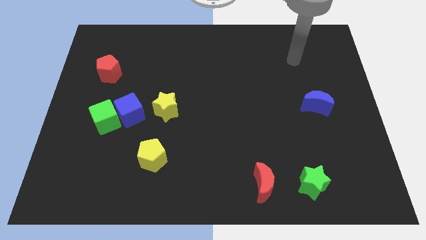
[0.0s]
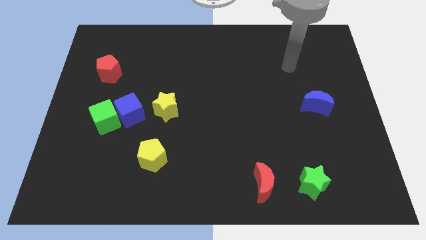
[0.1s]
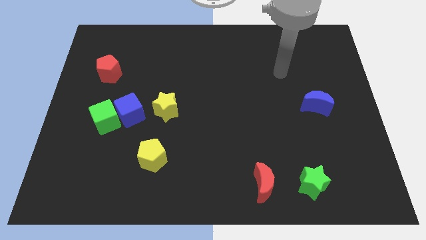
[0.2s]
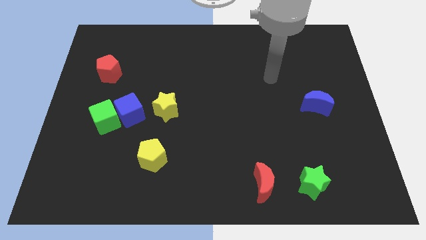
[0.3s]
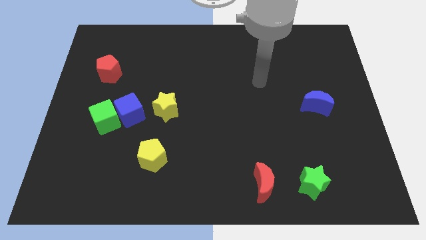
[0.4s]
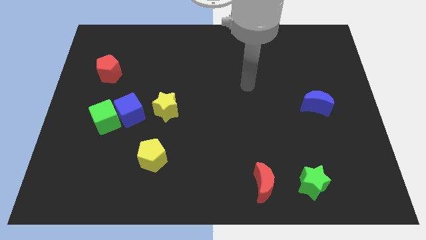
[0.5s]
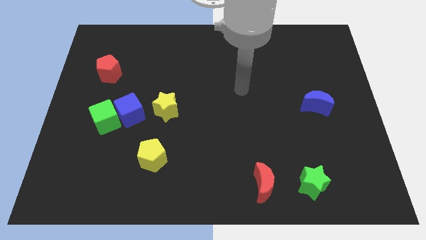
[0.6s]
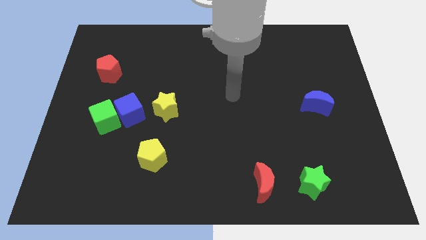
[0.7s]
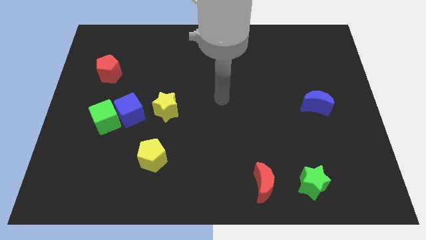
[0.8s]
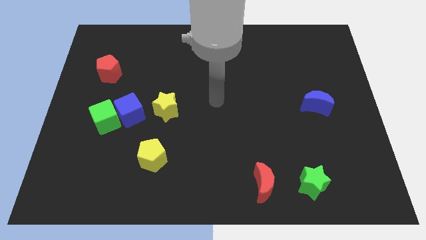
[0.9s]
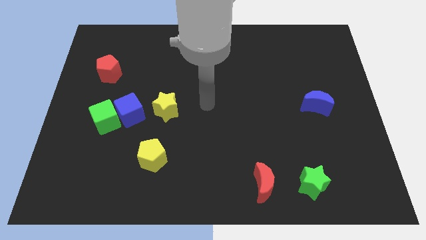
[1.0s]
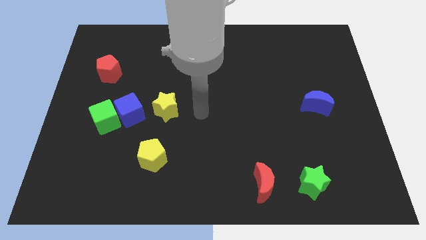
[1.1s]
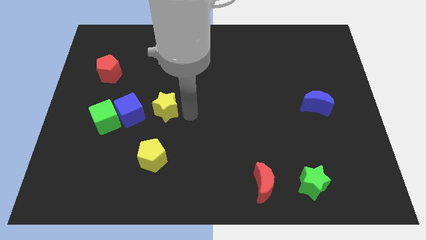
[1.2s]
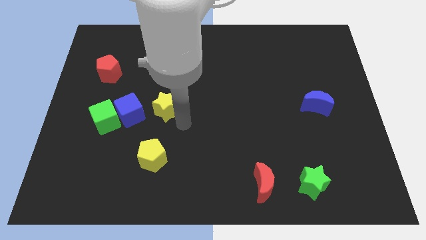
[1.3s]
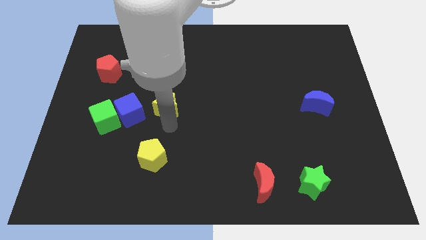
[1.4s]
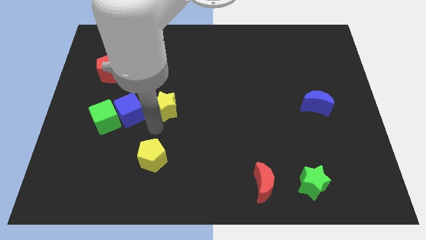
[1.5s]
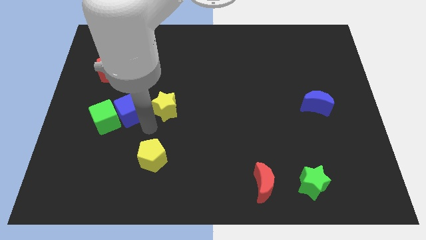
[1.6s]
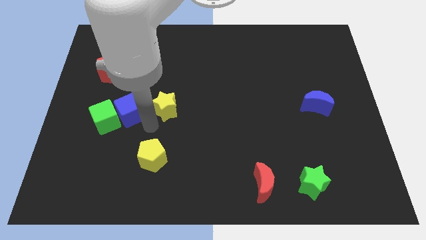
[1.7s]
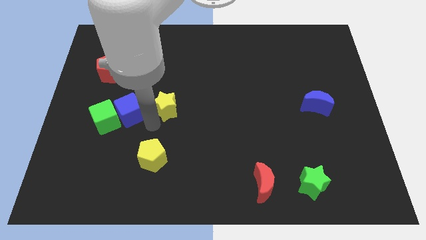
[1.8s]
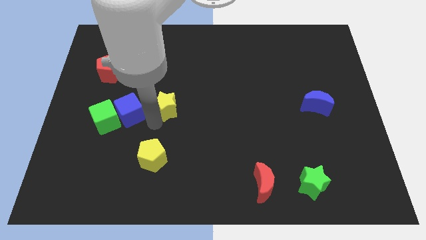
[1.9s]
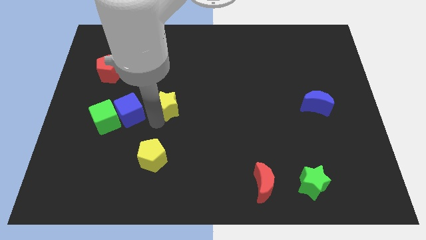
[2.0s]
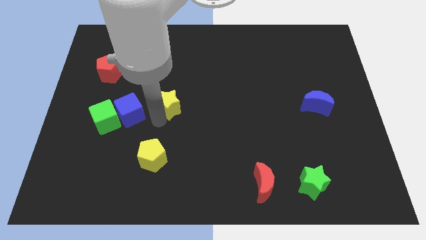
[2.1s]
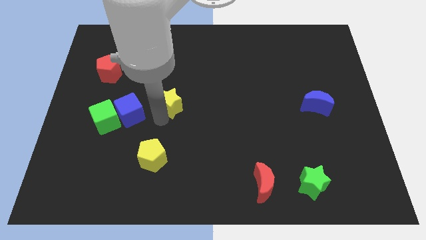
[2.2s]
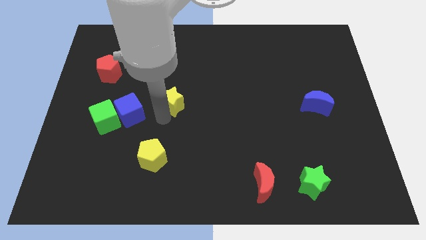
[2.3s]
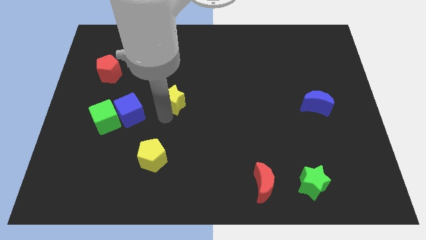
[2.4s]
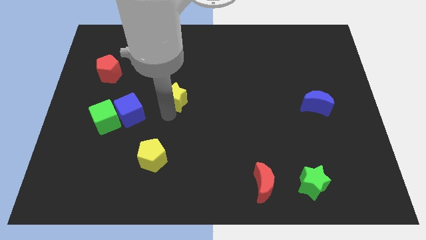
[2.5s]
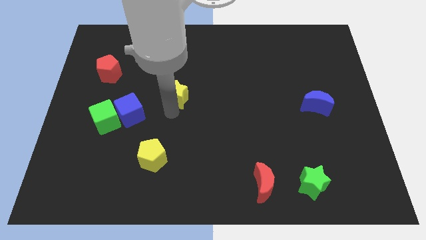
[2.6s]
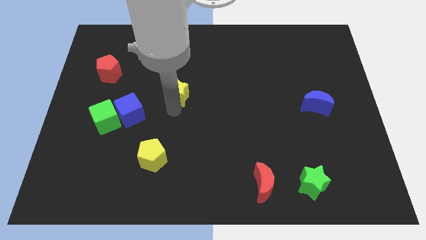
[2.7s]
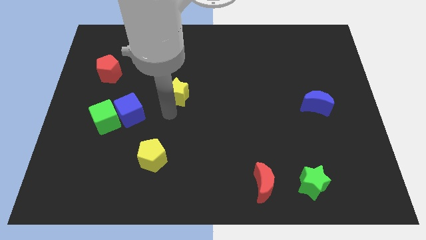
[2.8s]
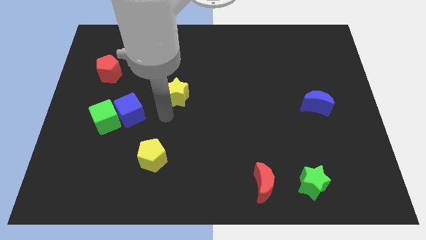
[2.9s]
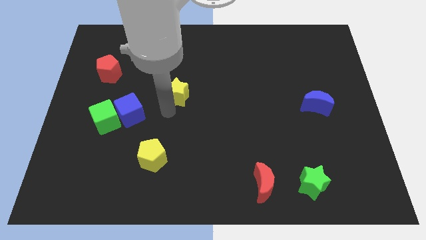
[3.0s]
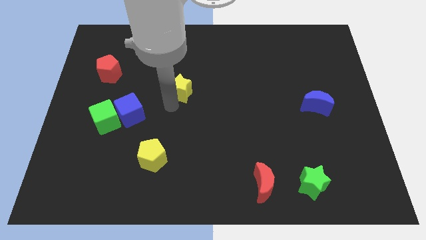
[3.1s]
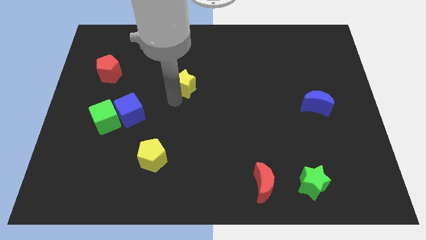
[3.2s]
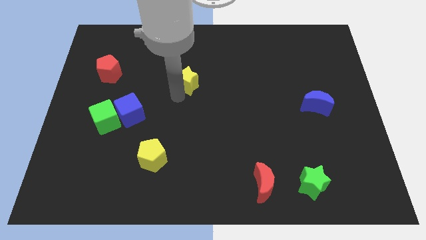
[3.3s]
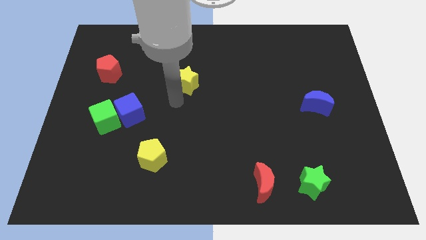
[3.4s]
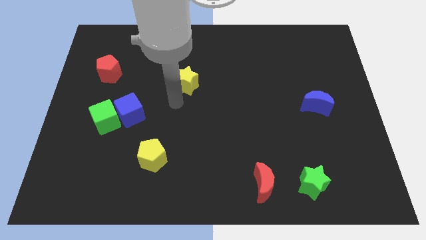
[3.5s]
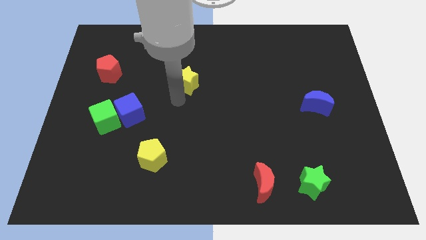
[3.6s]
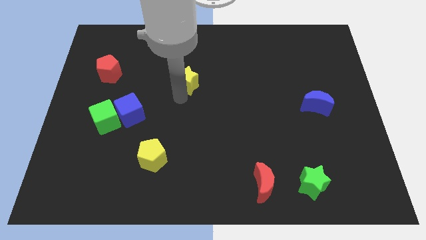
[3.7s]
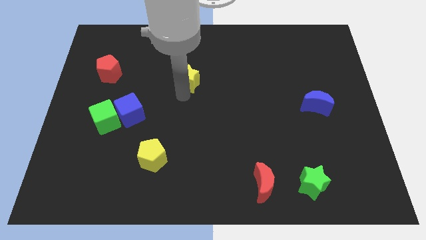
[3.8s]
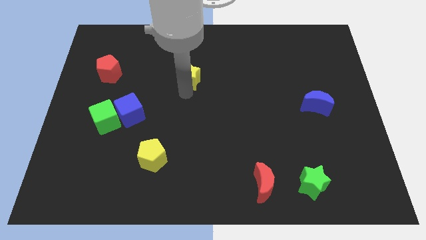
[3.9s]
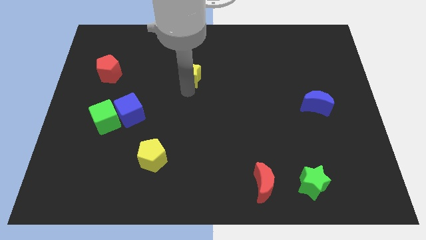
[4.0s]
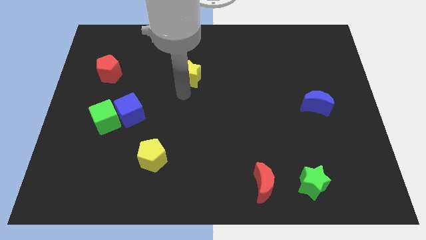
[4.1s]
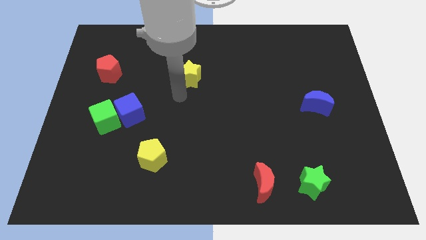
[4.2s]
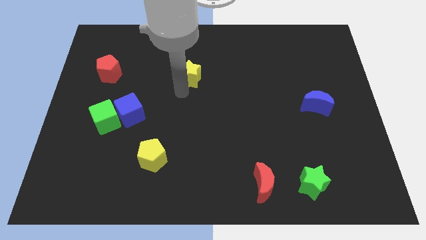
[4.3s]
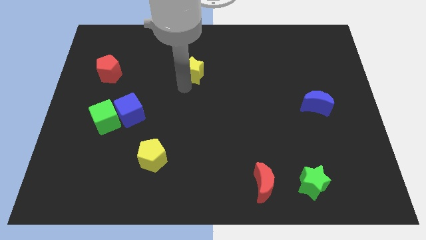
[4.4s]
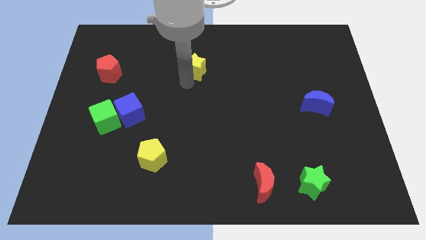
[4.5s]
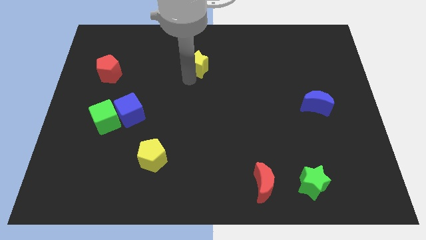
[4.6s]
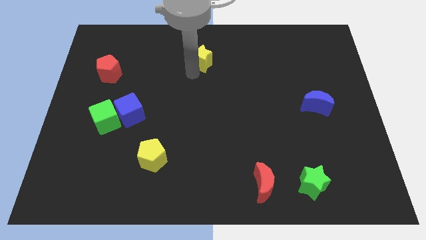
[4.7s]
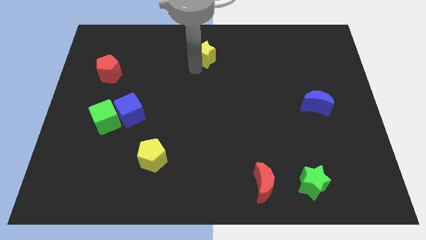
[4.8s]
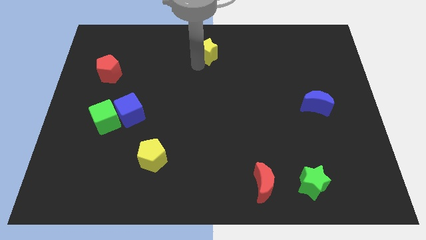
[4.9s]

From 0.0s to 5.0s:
move the yellow star to the top
